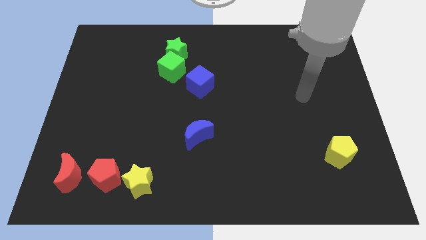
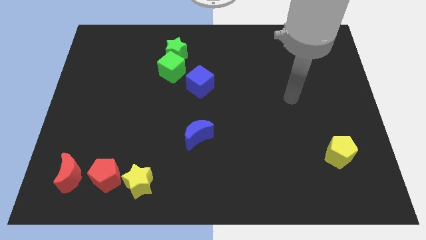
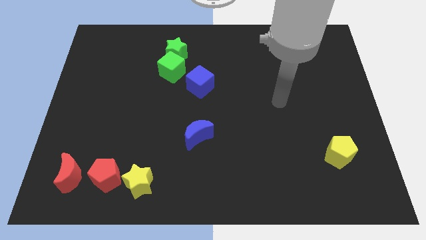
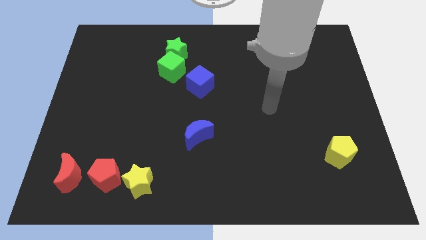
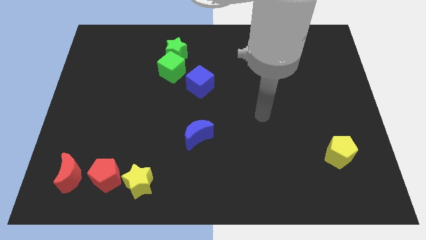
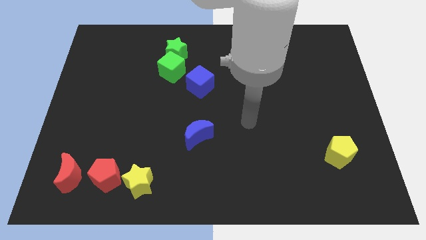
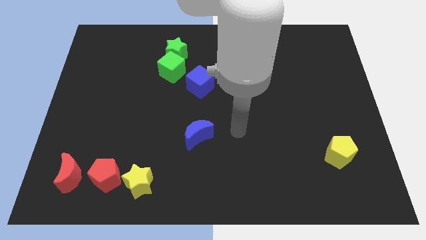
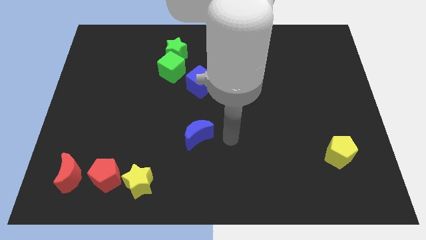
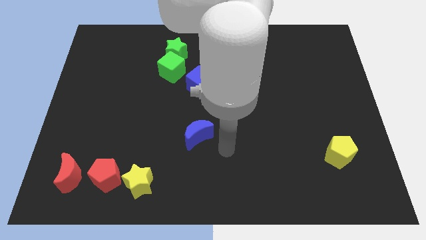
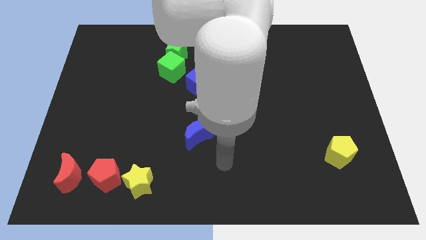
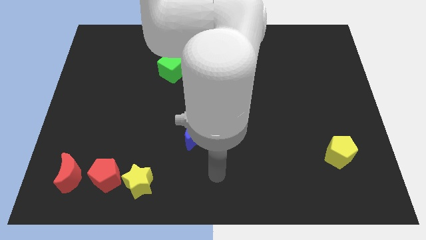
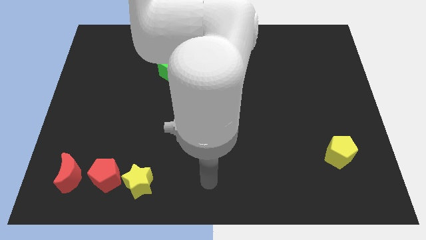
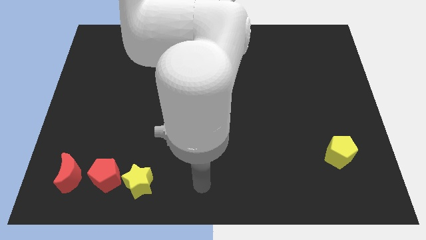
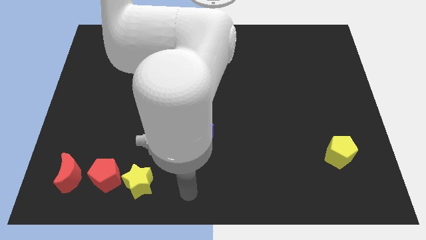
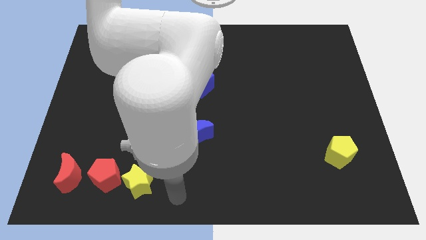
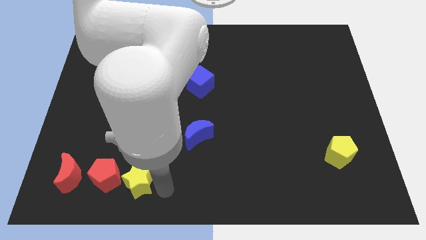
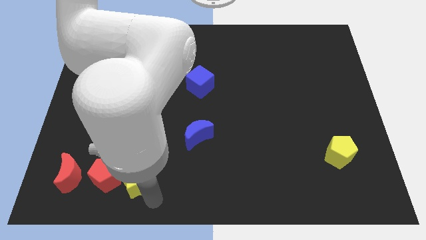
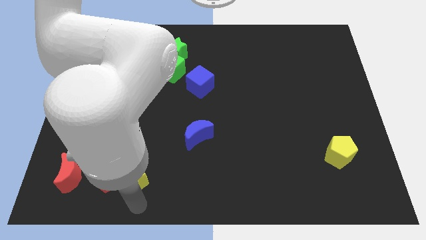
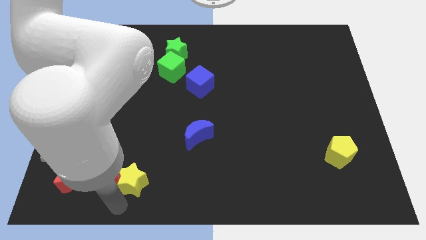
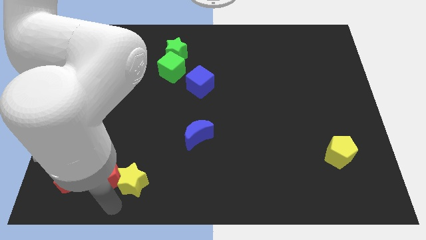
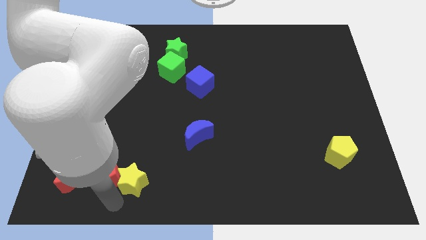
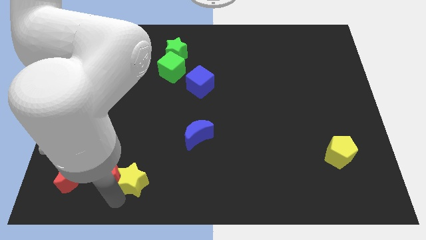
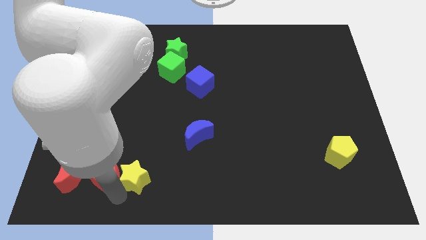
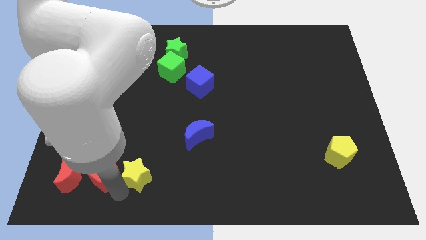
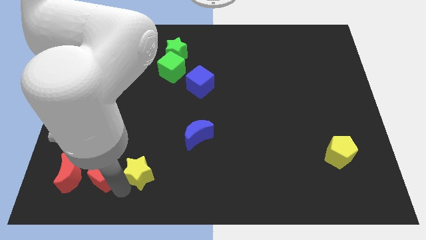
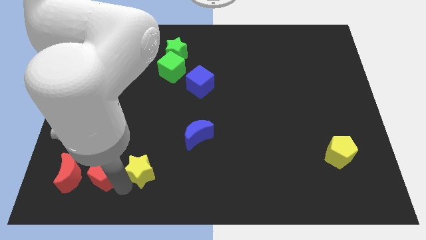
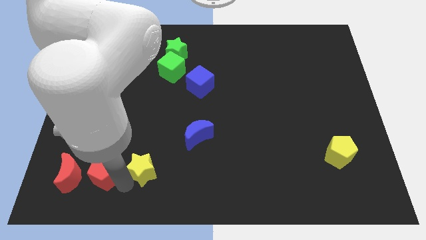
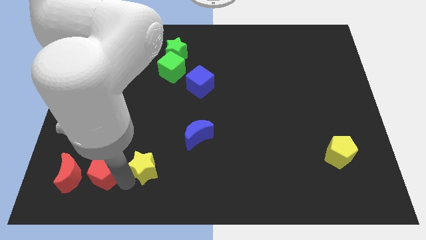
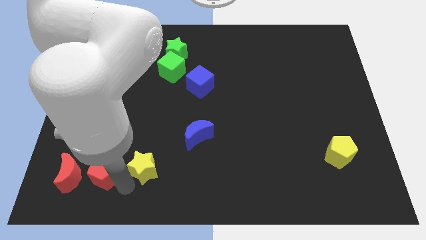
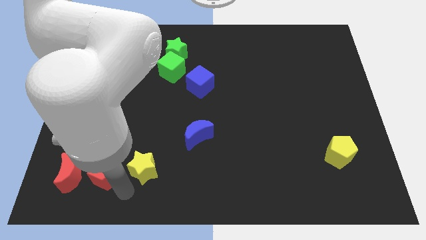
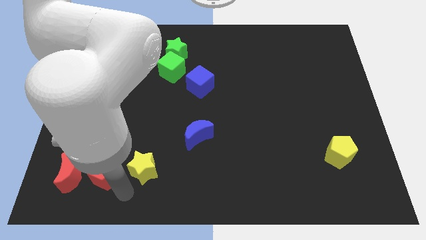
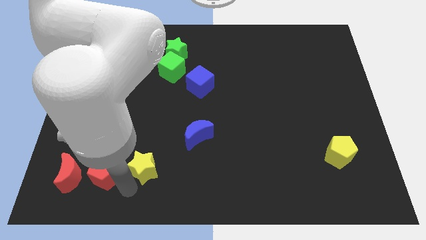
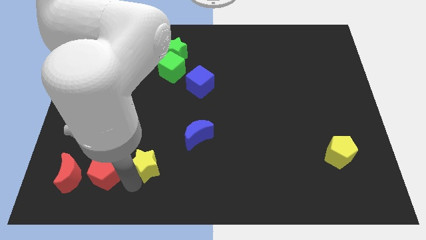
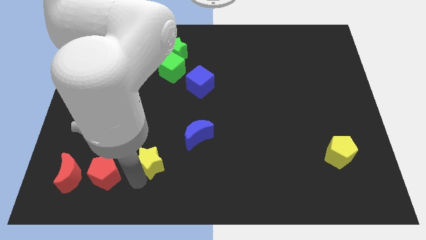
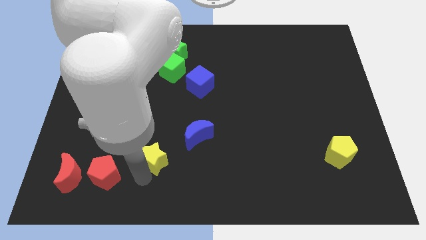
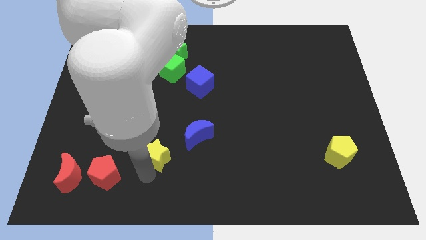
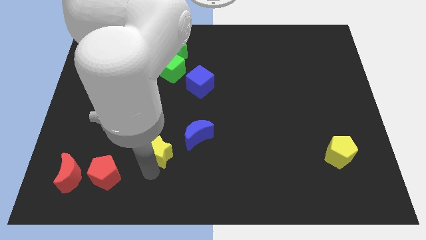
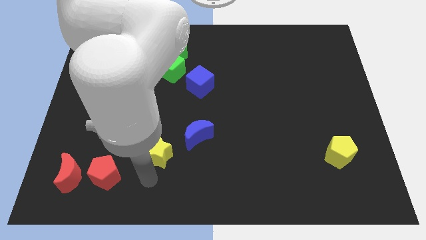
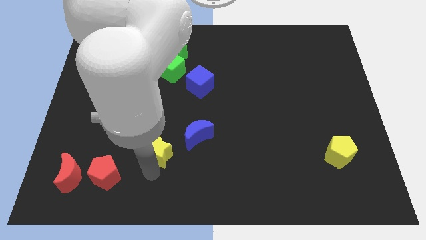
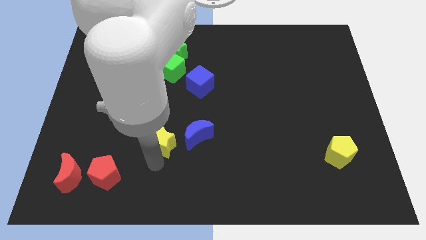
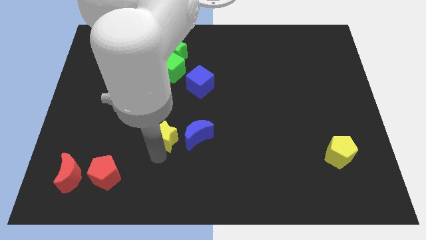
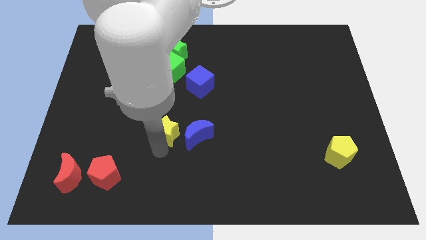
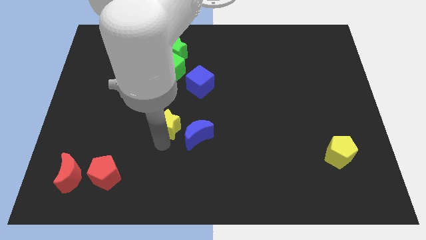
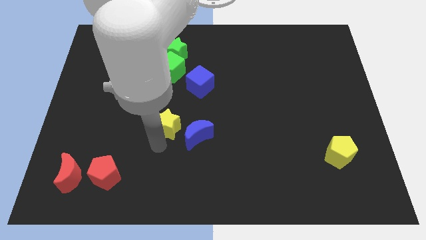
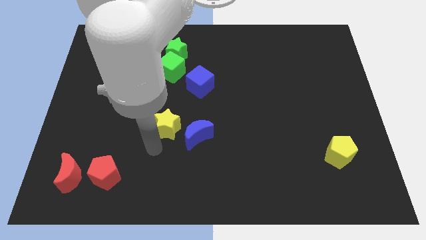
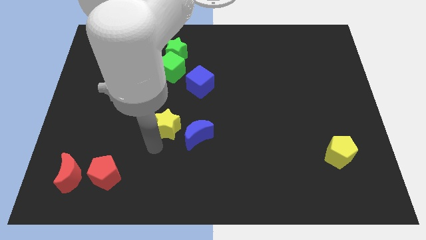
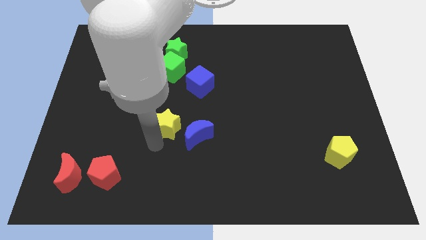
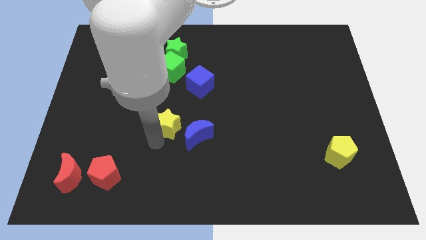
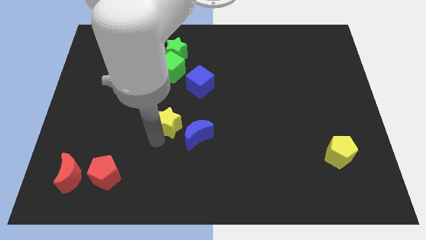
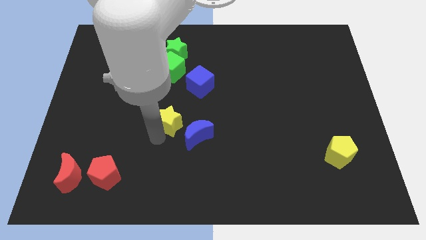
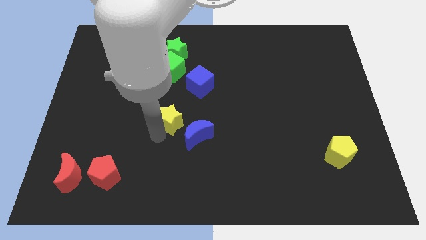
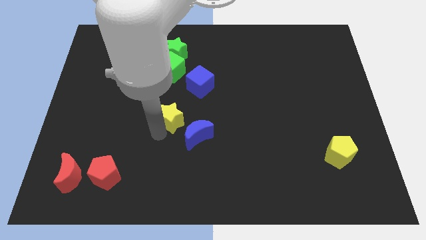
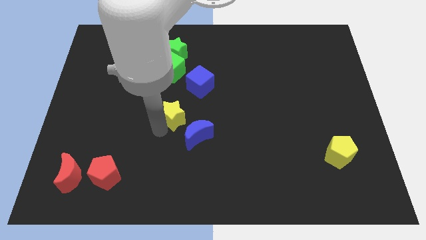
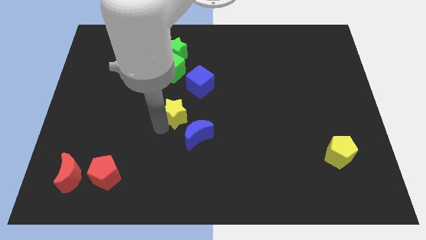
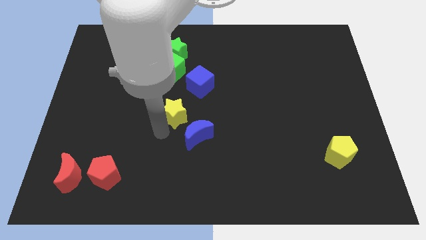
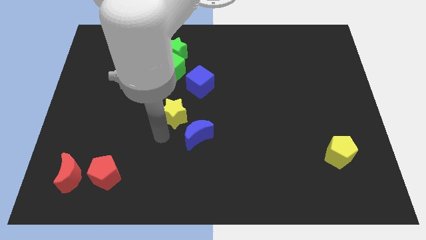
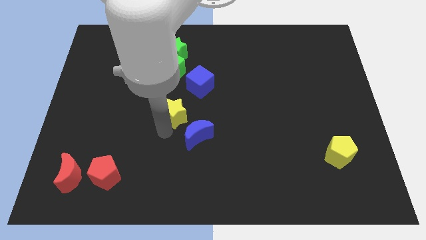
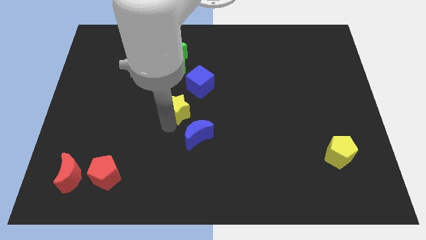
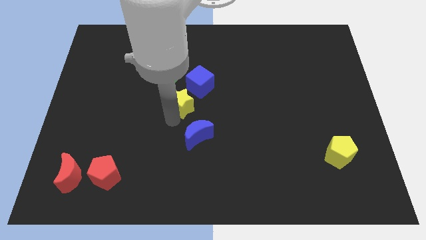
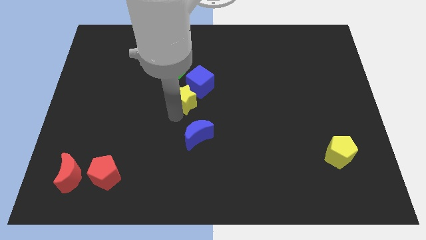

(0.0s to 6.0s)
push the yellow star next to the blue cube

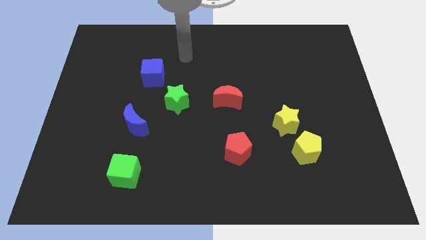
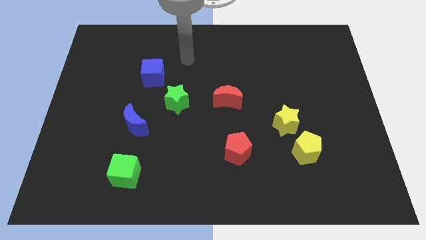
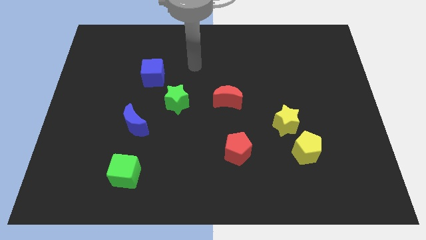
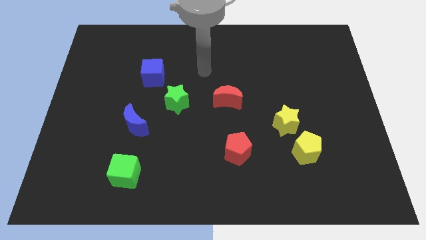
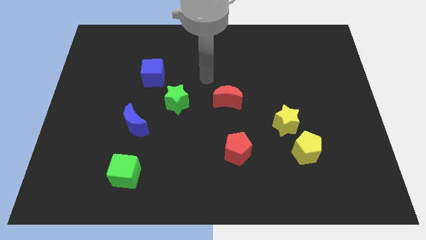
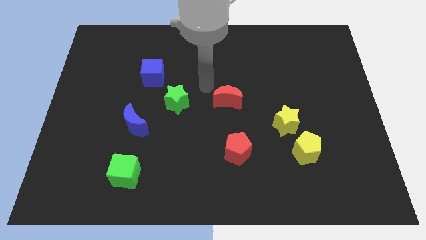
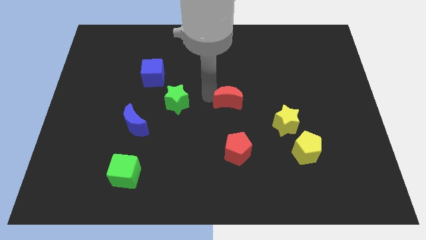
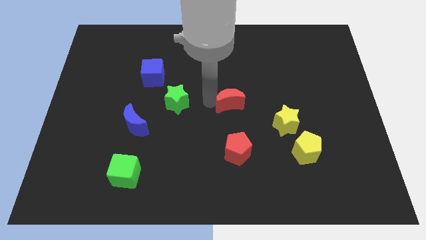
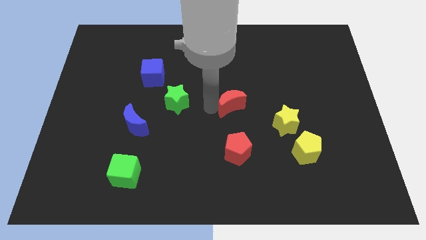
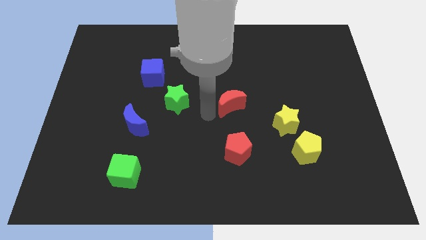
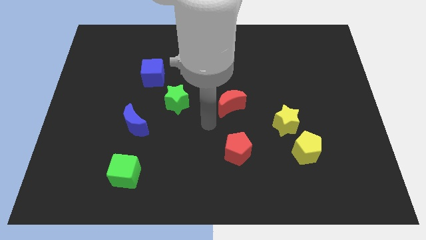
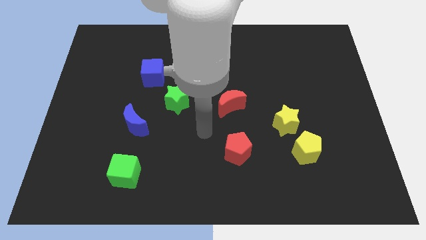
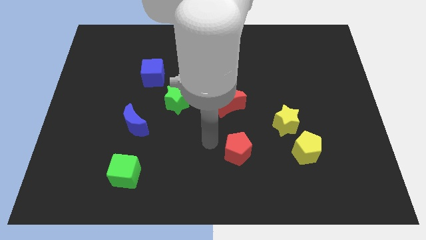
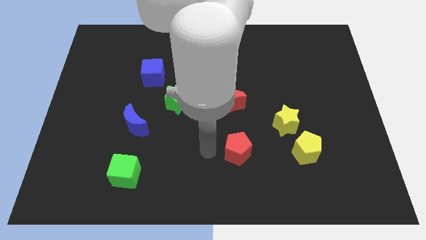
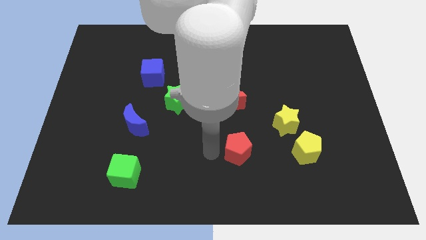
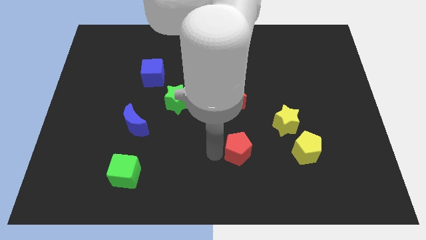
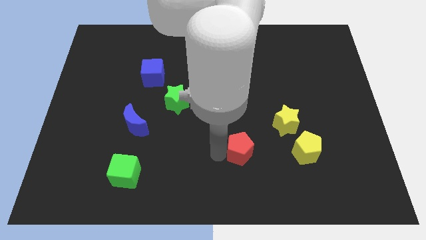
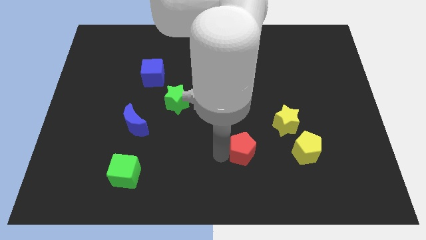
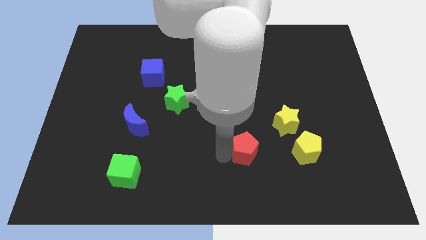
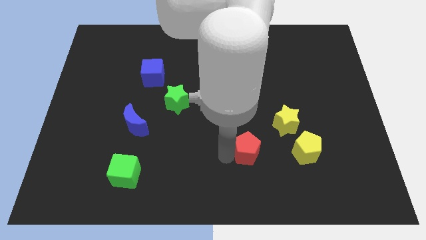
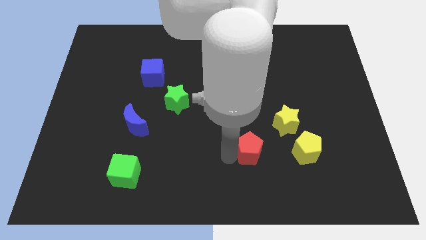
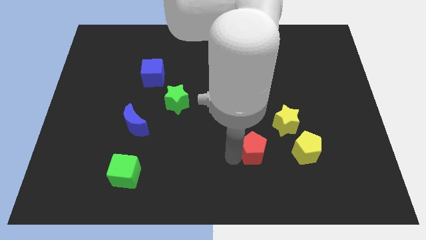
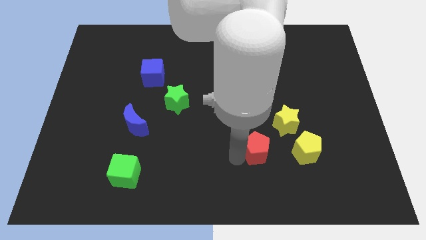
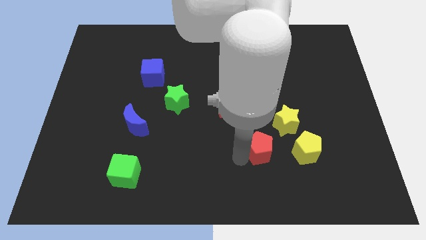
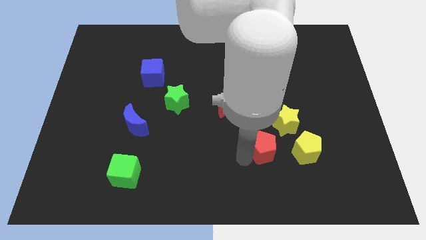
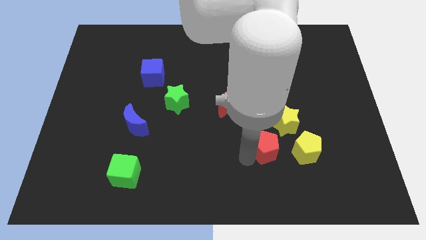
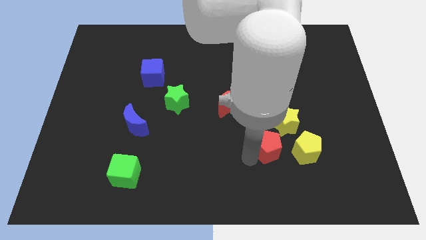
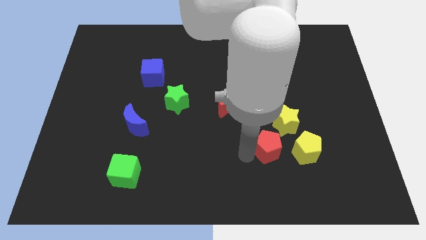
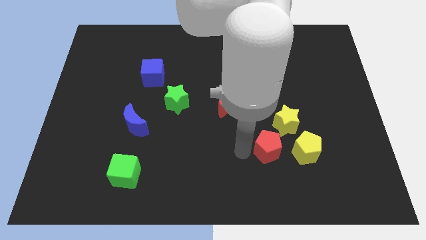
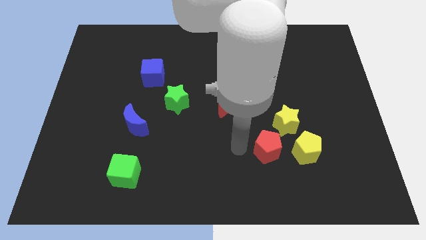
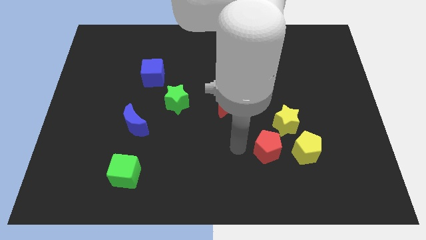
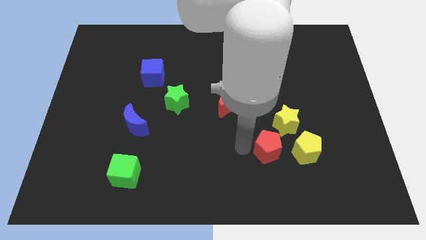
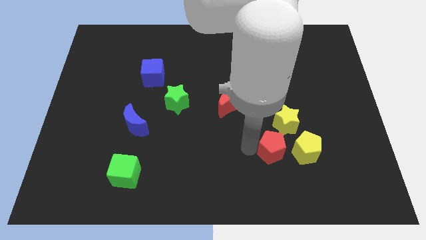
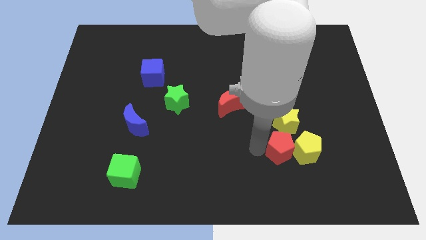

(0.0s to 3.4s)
put the red pentagon close to the yellow pentagon
